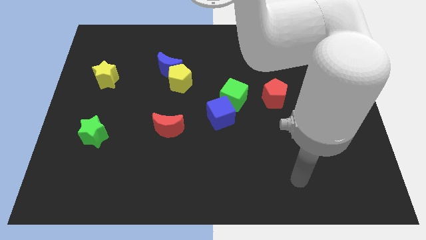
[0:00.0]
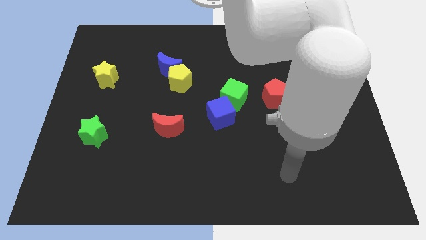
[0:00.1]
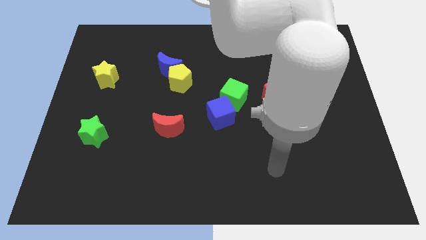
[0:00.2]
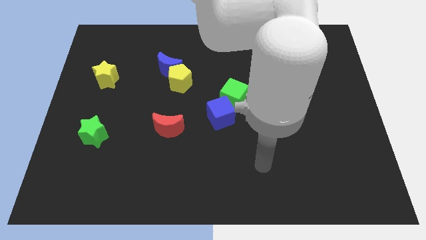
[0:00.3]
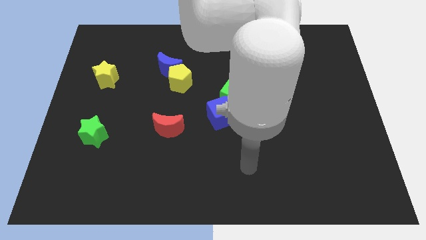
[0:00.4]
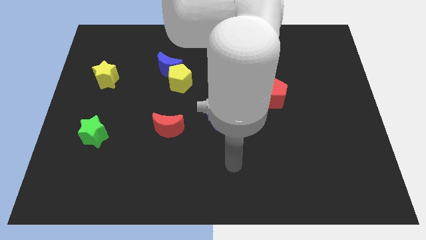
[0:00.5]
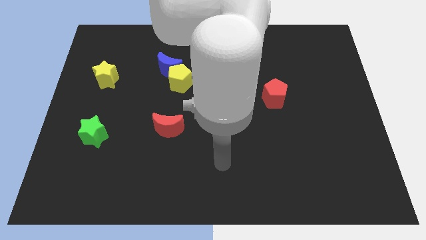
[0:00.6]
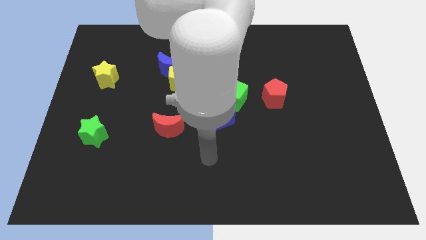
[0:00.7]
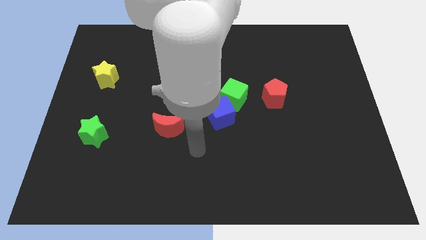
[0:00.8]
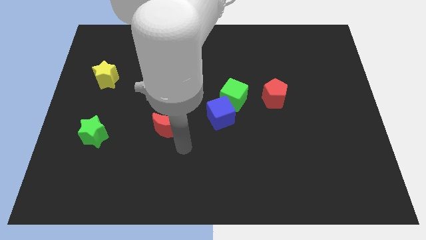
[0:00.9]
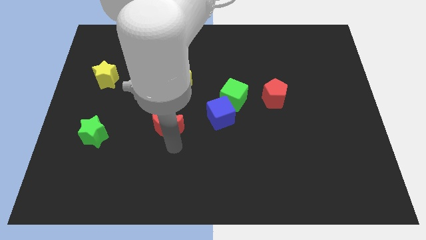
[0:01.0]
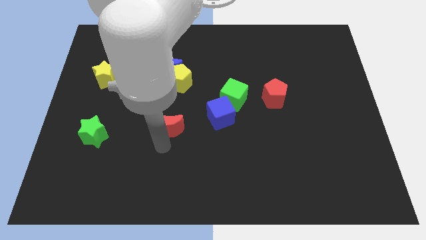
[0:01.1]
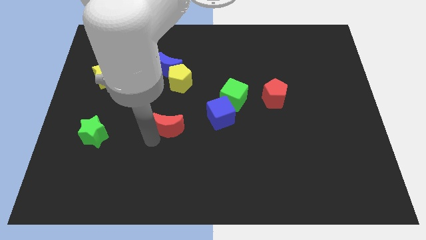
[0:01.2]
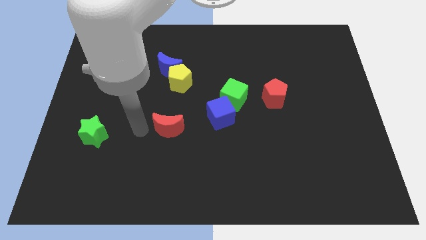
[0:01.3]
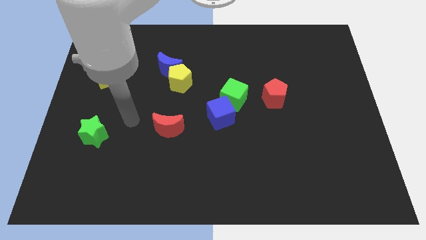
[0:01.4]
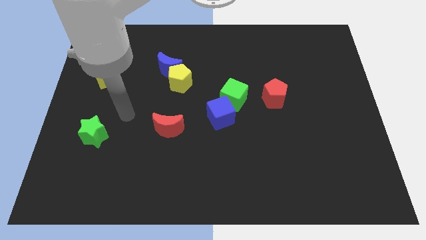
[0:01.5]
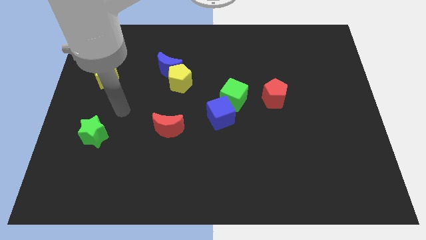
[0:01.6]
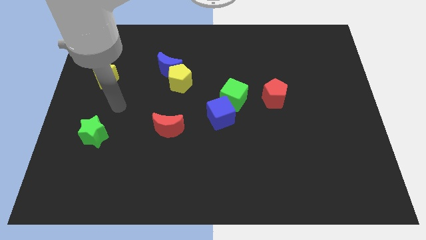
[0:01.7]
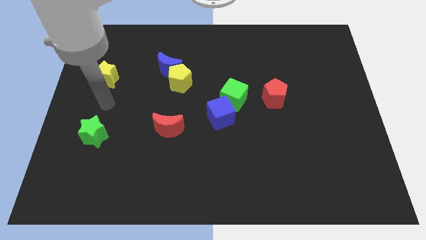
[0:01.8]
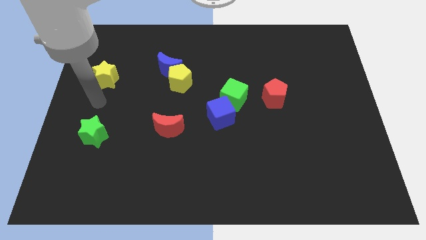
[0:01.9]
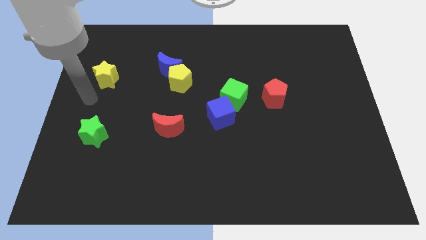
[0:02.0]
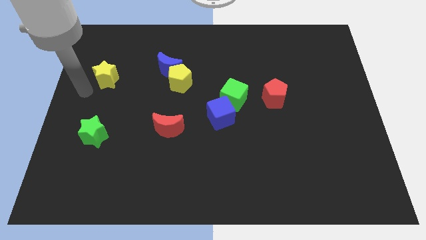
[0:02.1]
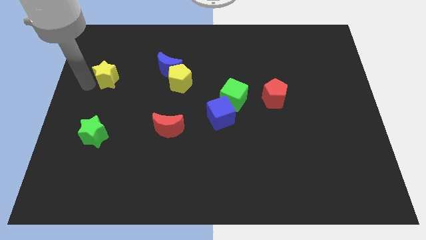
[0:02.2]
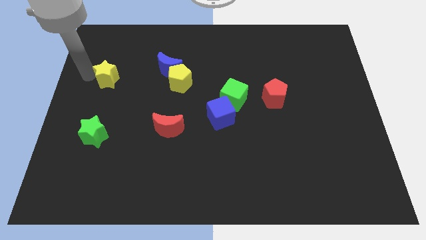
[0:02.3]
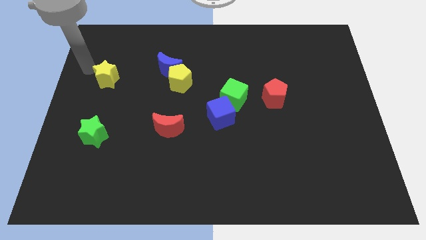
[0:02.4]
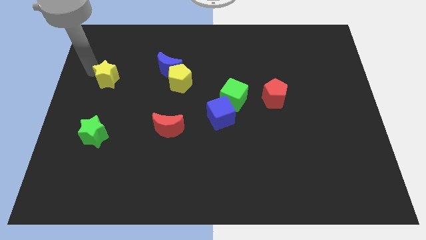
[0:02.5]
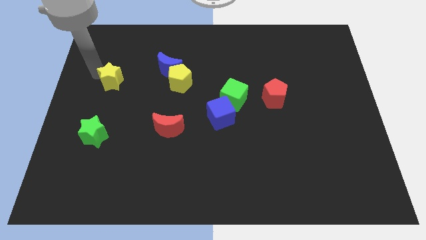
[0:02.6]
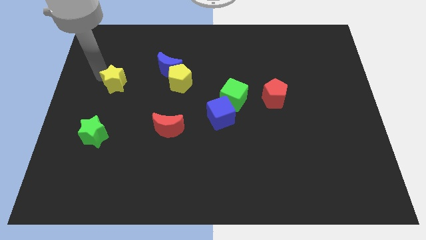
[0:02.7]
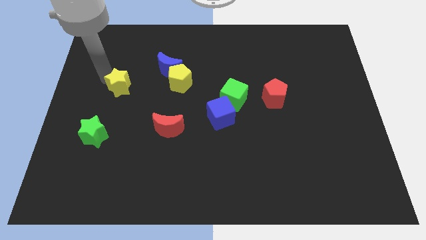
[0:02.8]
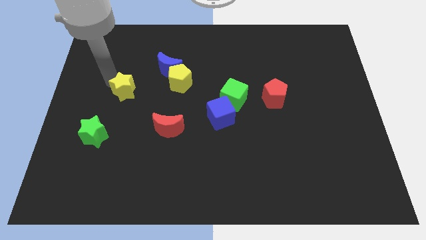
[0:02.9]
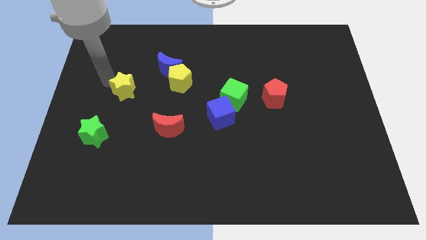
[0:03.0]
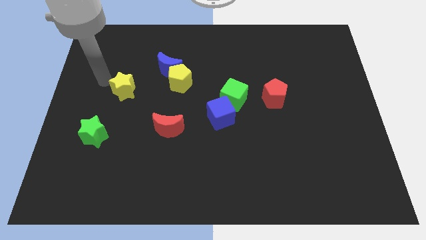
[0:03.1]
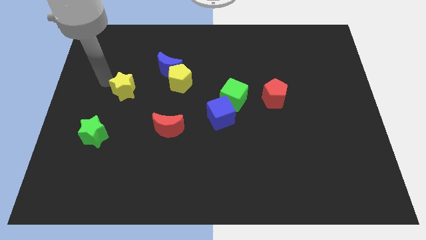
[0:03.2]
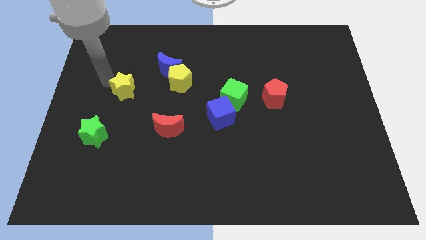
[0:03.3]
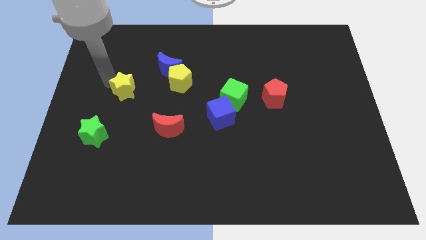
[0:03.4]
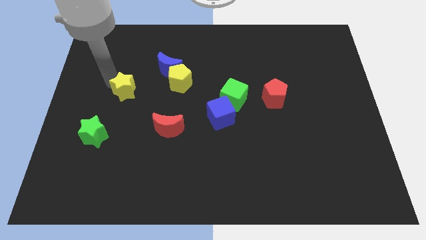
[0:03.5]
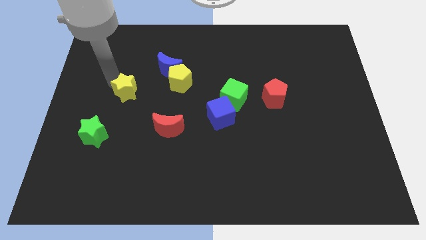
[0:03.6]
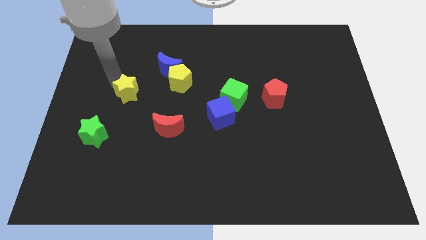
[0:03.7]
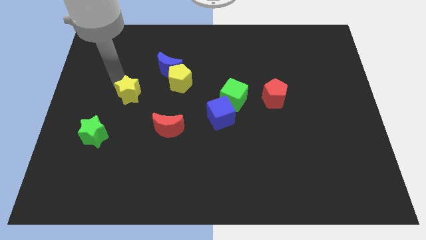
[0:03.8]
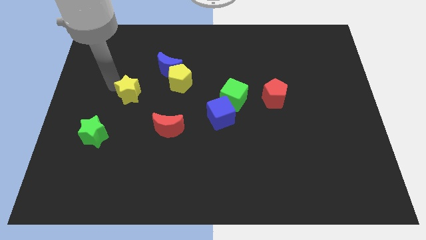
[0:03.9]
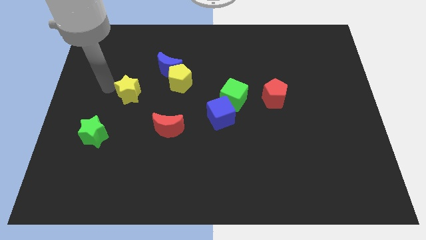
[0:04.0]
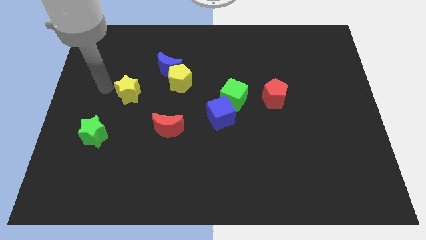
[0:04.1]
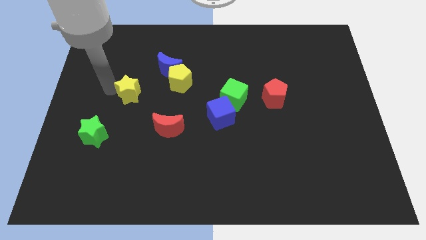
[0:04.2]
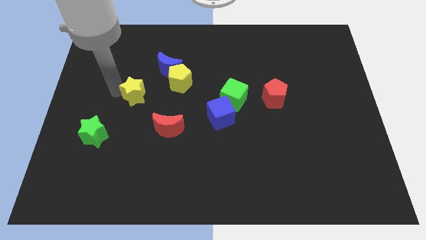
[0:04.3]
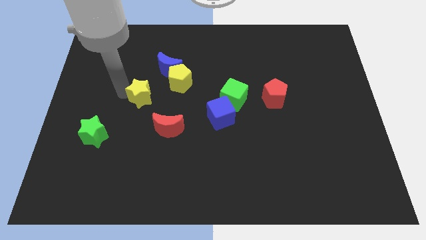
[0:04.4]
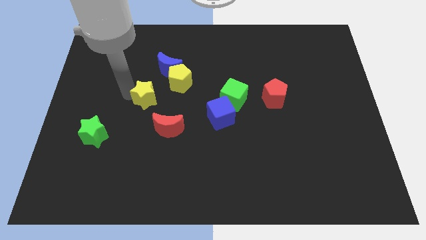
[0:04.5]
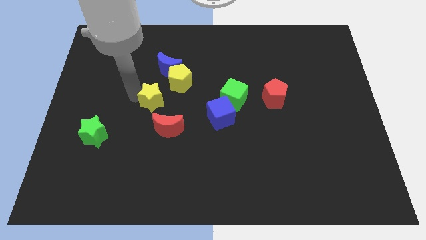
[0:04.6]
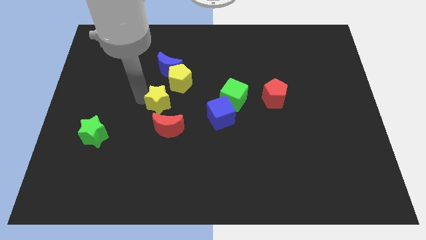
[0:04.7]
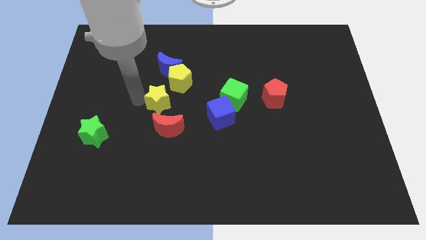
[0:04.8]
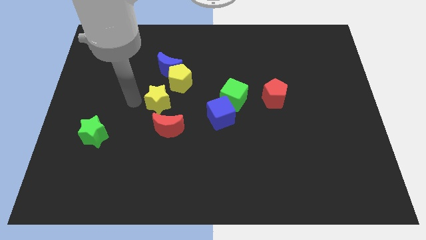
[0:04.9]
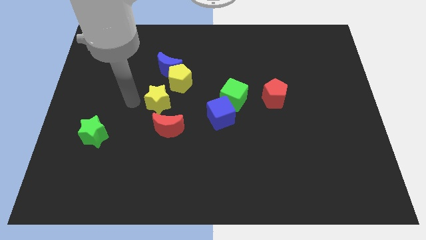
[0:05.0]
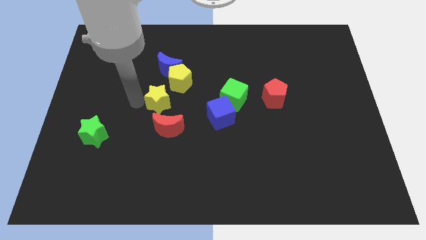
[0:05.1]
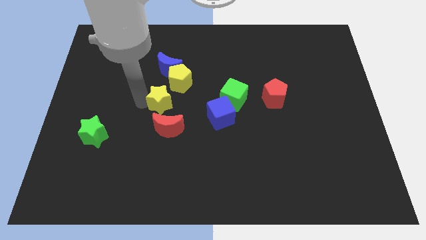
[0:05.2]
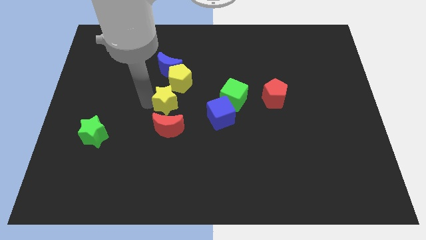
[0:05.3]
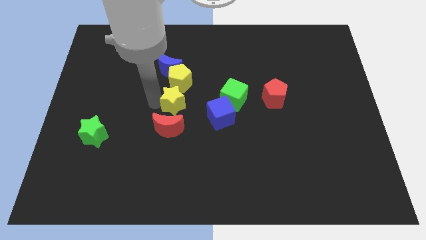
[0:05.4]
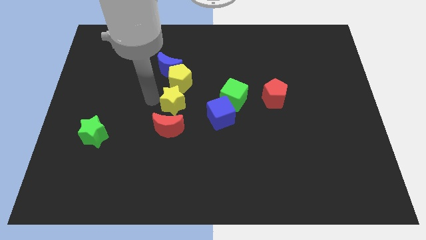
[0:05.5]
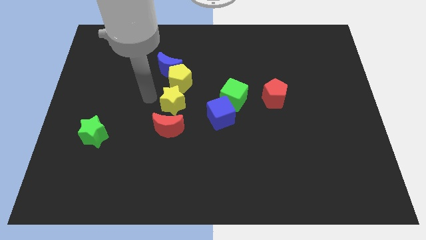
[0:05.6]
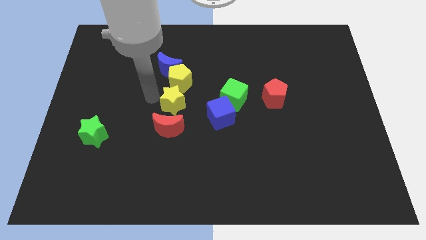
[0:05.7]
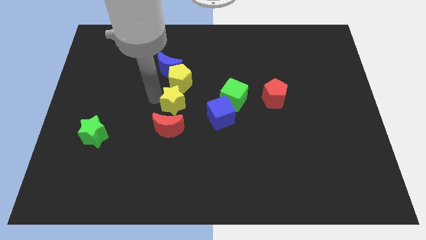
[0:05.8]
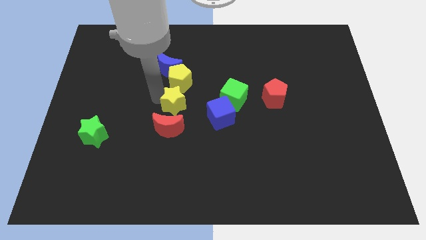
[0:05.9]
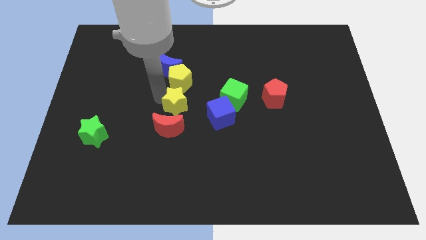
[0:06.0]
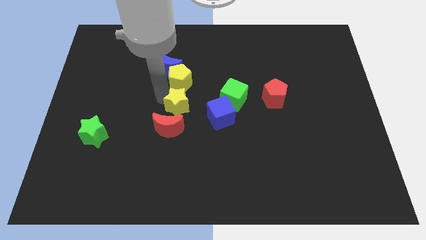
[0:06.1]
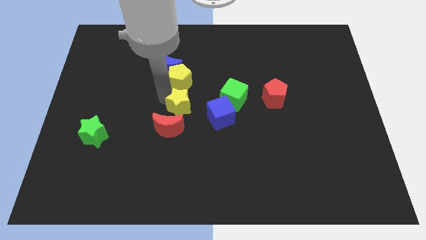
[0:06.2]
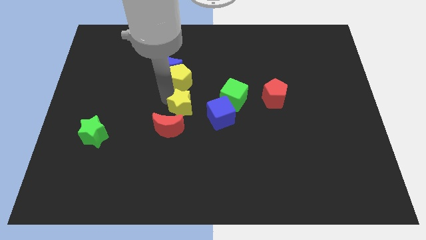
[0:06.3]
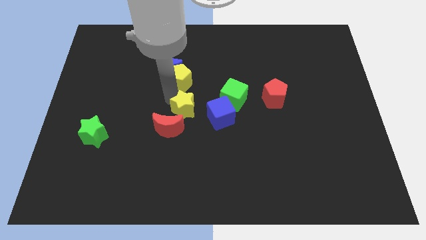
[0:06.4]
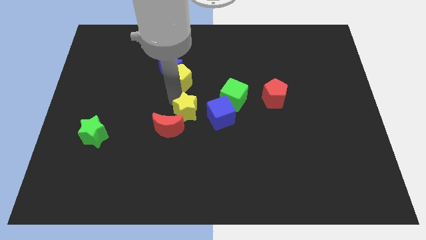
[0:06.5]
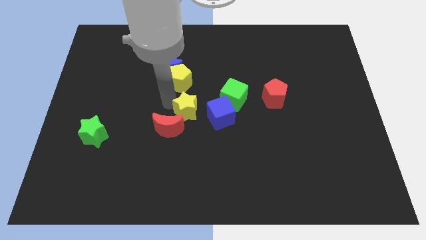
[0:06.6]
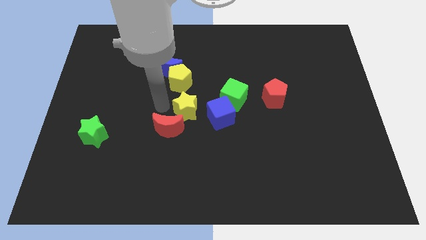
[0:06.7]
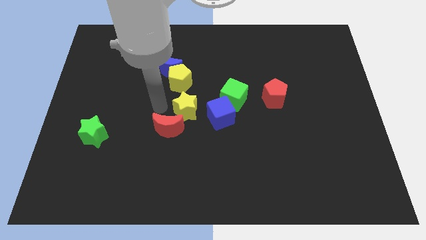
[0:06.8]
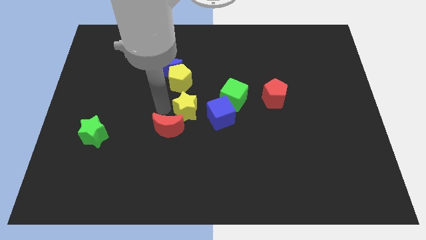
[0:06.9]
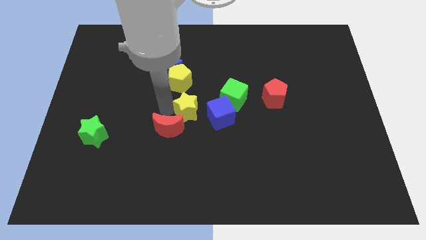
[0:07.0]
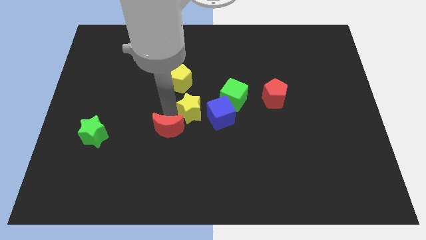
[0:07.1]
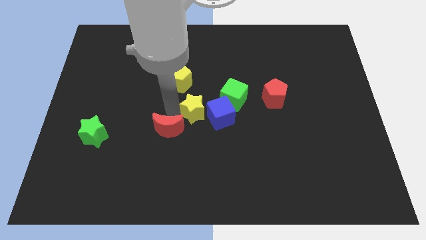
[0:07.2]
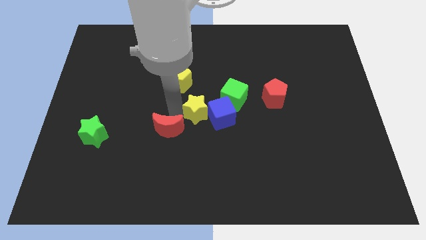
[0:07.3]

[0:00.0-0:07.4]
push the yellow star close to the blue cube

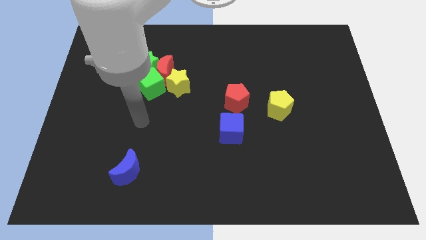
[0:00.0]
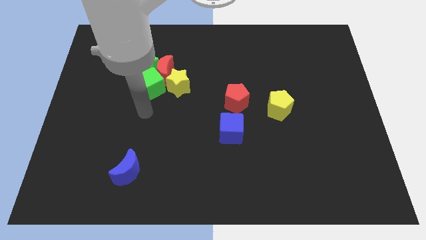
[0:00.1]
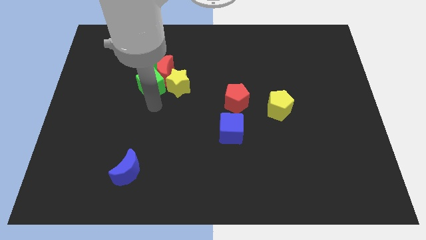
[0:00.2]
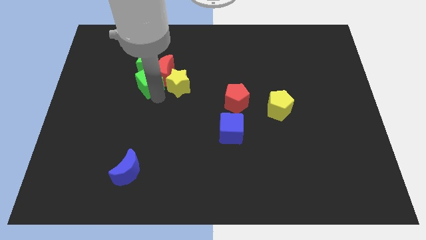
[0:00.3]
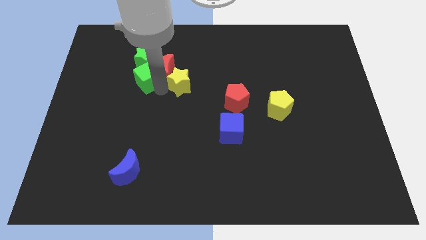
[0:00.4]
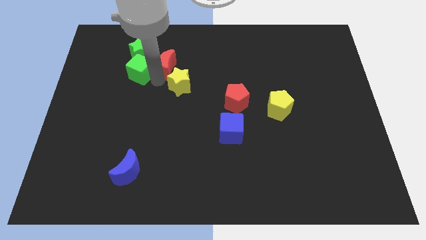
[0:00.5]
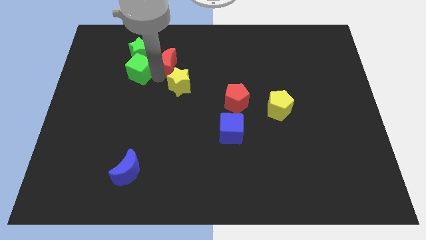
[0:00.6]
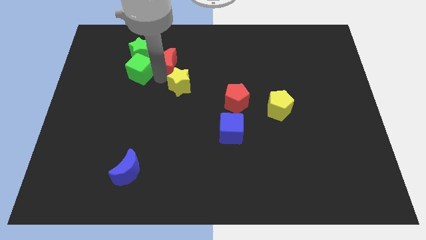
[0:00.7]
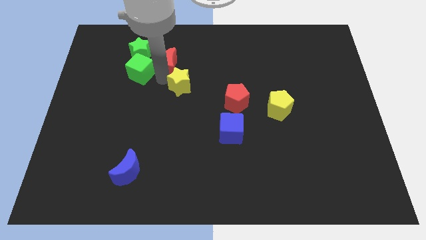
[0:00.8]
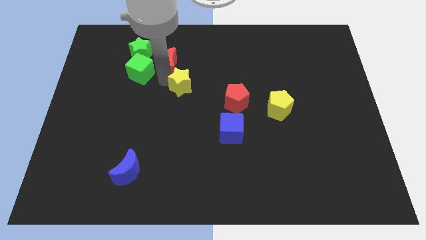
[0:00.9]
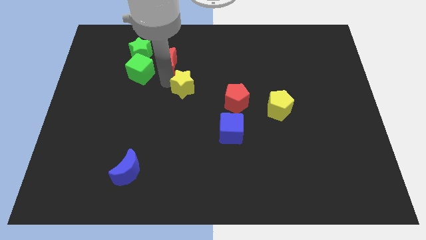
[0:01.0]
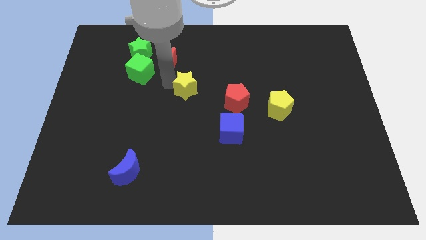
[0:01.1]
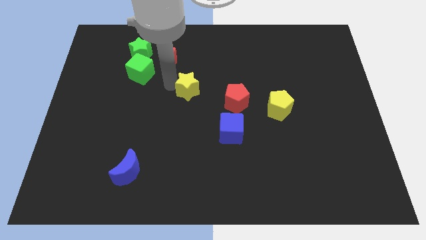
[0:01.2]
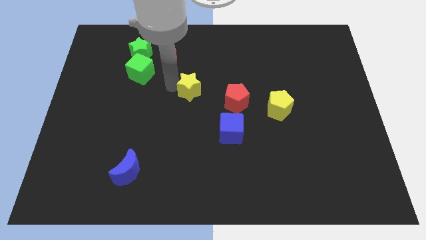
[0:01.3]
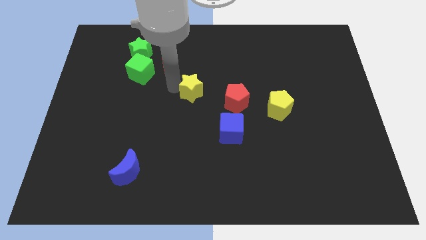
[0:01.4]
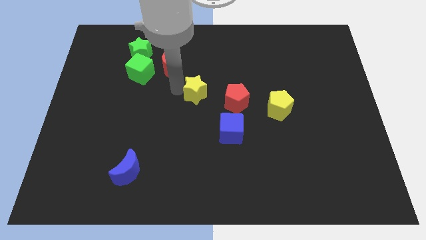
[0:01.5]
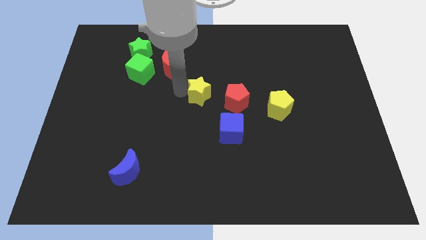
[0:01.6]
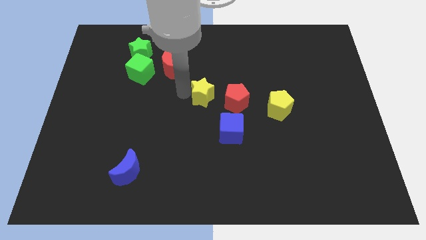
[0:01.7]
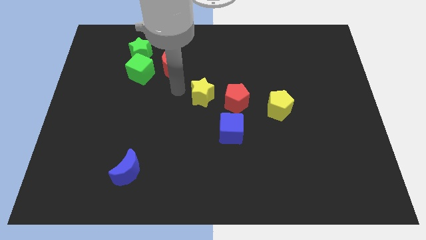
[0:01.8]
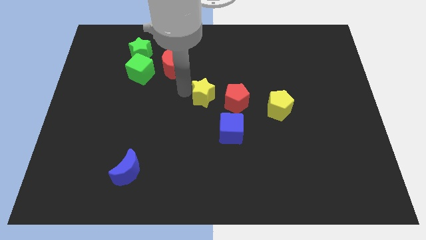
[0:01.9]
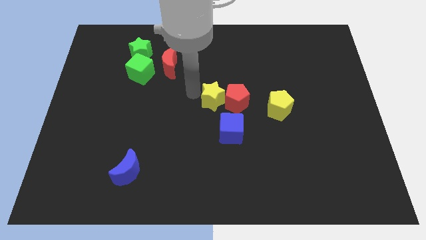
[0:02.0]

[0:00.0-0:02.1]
slide the yellow star next to the red pentagon
